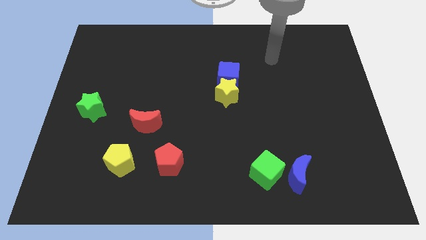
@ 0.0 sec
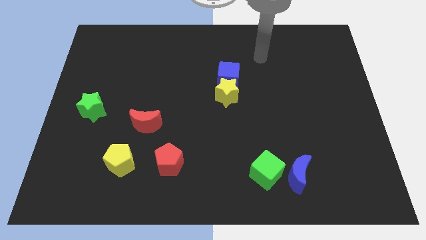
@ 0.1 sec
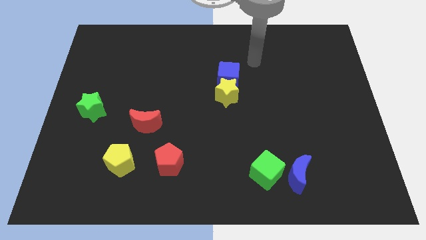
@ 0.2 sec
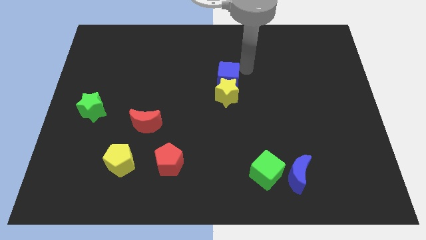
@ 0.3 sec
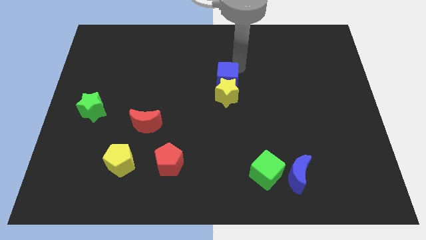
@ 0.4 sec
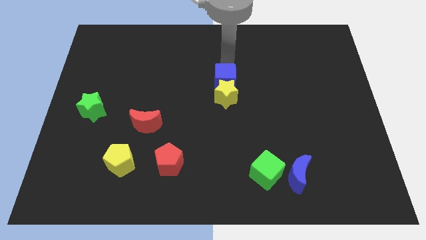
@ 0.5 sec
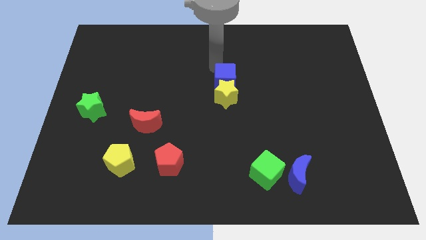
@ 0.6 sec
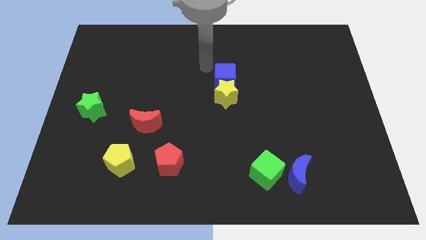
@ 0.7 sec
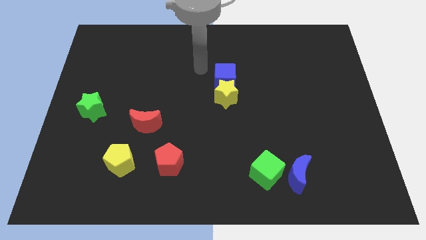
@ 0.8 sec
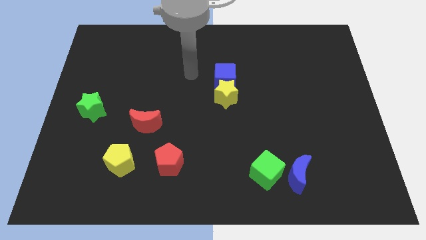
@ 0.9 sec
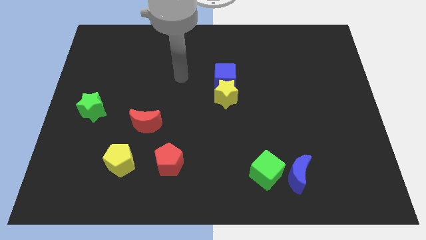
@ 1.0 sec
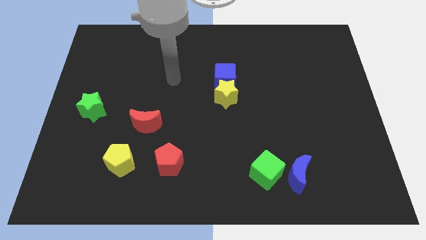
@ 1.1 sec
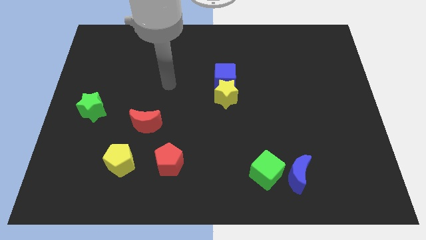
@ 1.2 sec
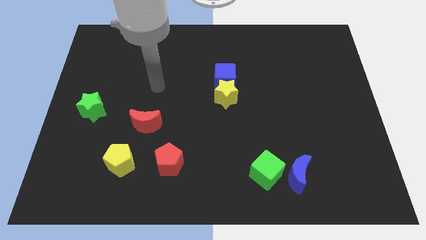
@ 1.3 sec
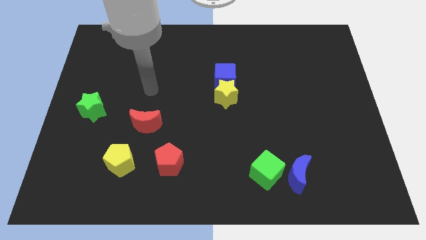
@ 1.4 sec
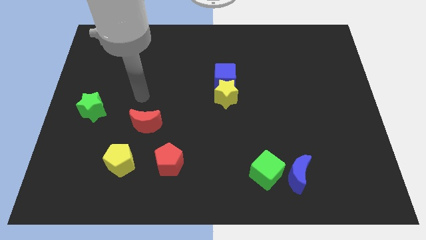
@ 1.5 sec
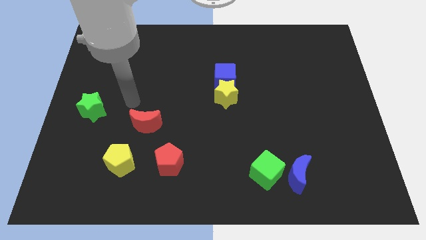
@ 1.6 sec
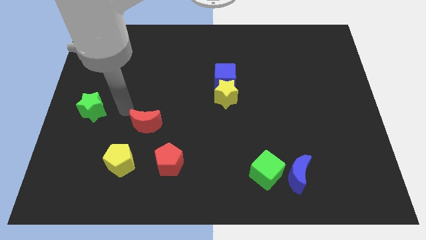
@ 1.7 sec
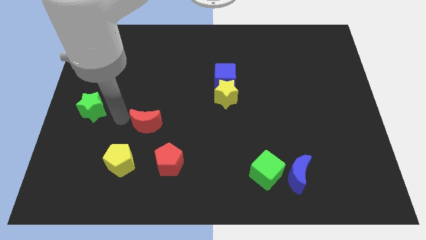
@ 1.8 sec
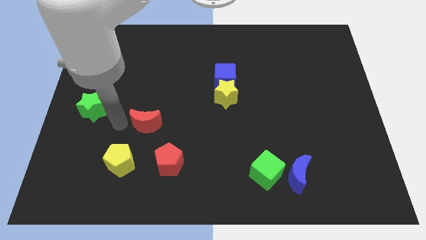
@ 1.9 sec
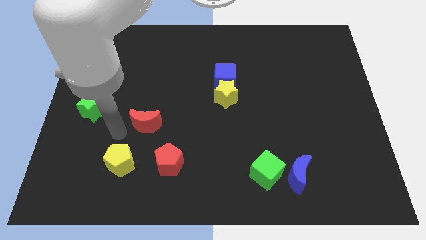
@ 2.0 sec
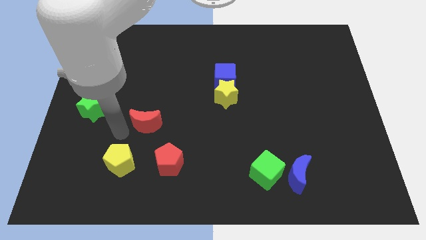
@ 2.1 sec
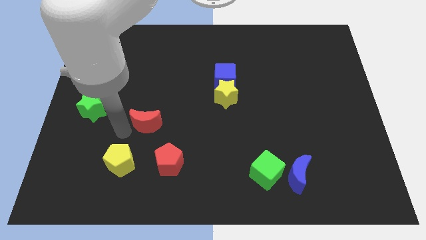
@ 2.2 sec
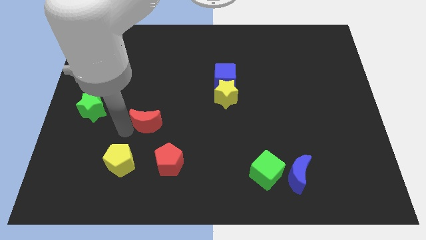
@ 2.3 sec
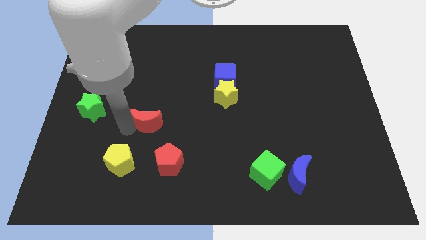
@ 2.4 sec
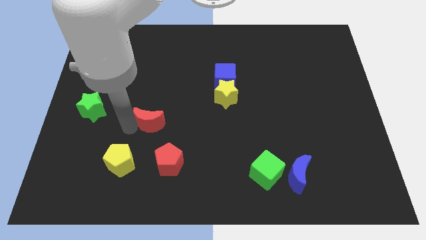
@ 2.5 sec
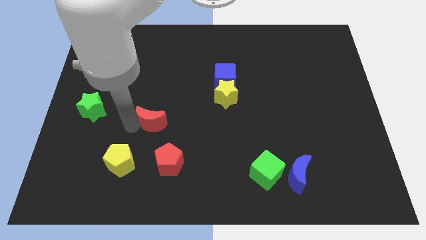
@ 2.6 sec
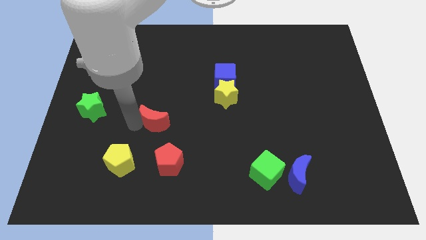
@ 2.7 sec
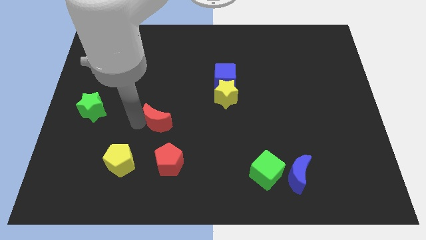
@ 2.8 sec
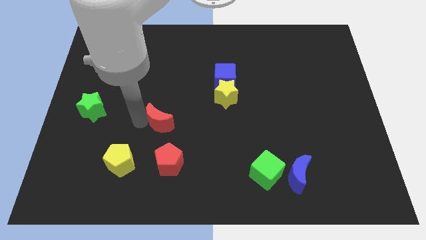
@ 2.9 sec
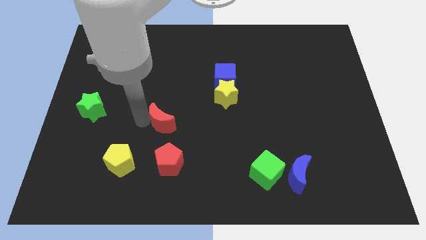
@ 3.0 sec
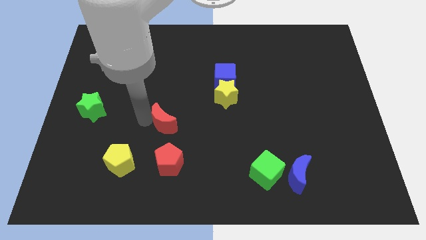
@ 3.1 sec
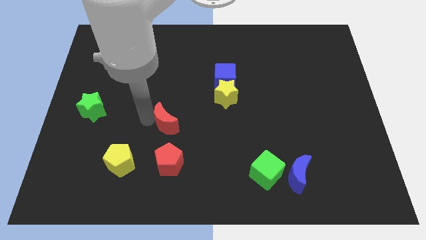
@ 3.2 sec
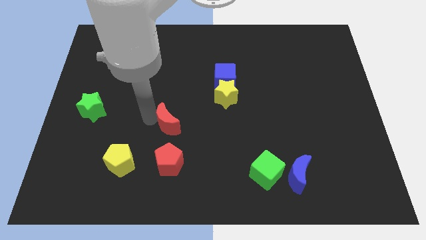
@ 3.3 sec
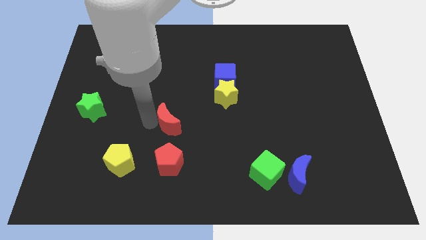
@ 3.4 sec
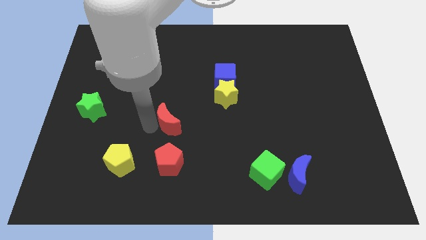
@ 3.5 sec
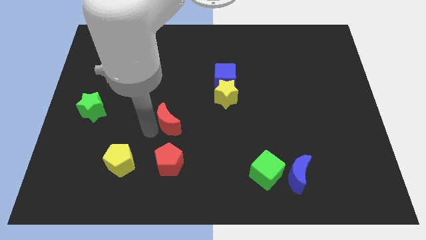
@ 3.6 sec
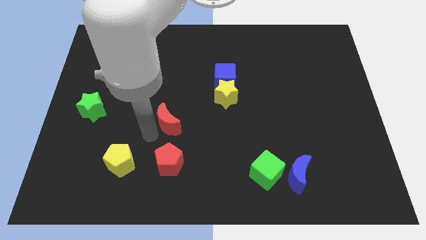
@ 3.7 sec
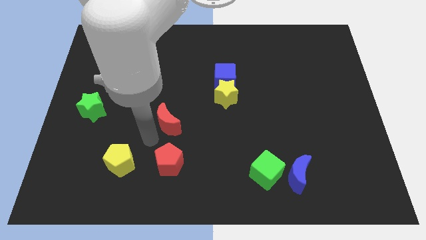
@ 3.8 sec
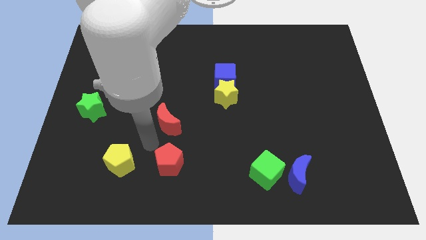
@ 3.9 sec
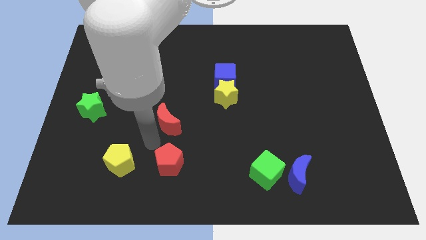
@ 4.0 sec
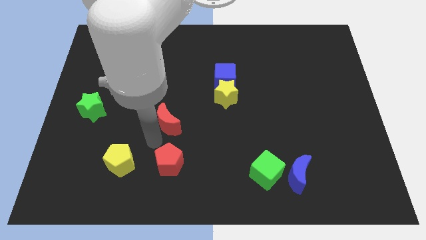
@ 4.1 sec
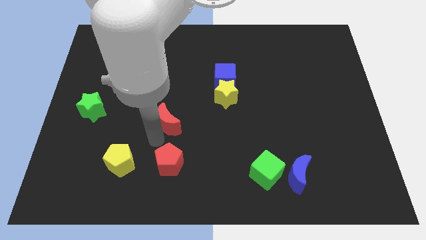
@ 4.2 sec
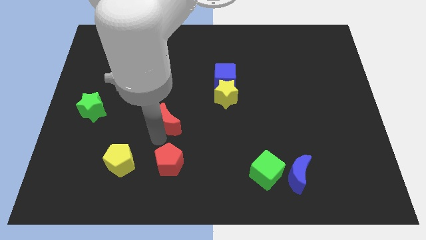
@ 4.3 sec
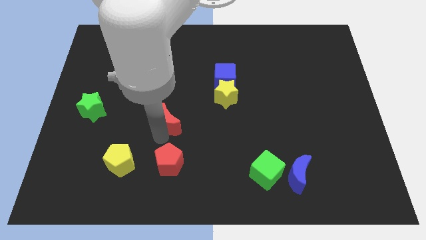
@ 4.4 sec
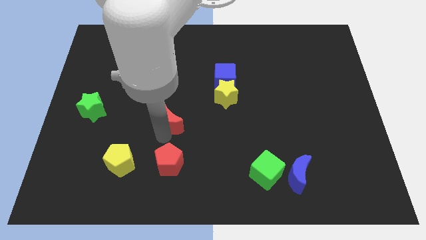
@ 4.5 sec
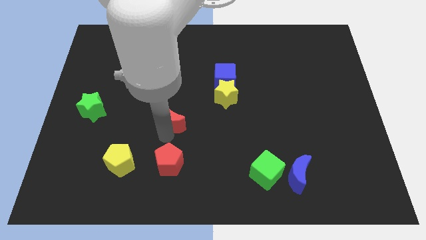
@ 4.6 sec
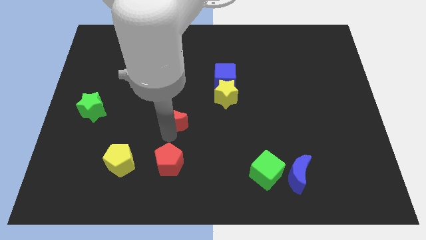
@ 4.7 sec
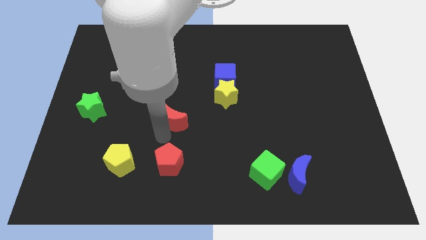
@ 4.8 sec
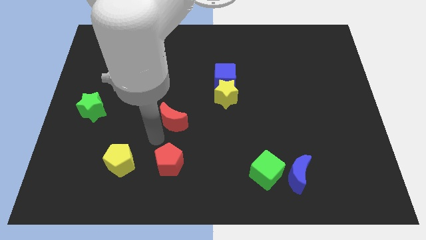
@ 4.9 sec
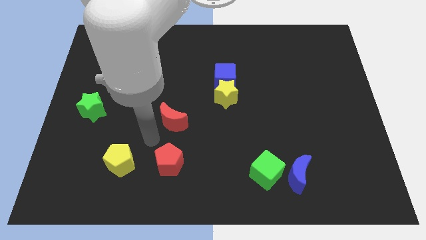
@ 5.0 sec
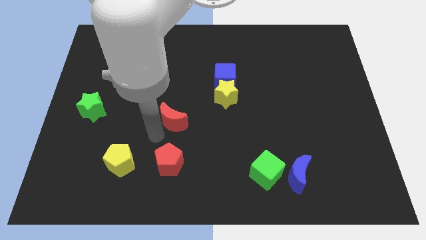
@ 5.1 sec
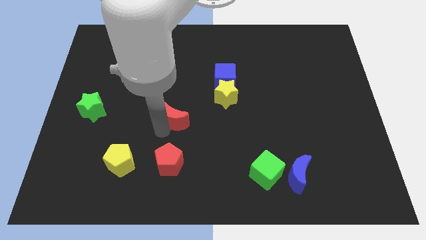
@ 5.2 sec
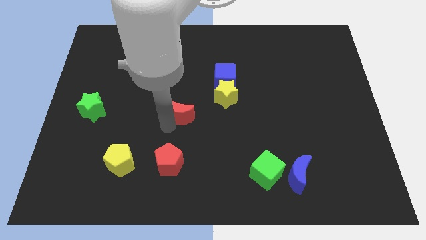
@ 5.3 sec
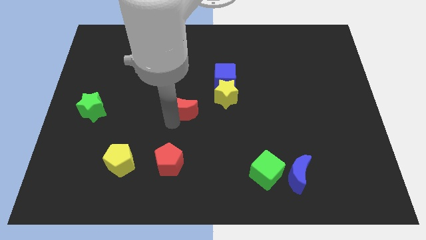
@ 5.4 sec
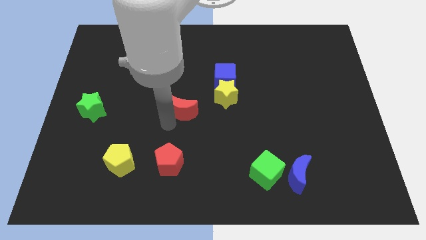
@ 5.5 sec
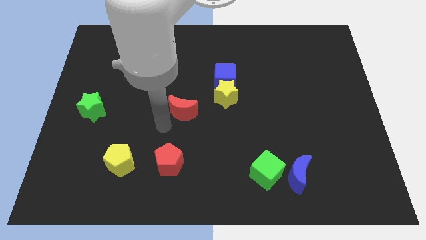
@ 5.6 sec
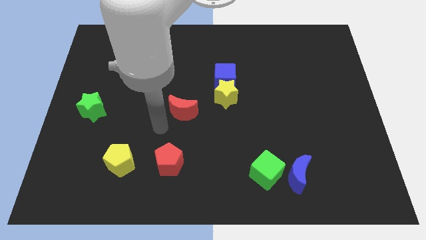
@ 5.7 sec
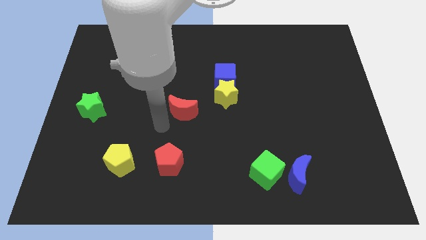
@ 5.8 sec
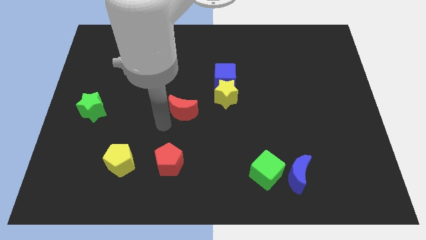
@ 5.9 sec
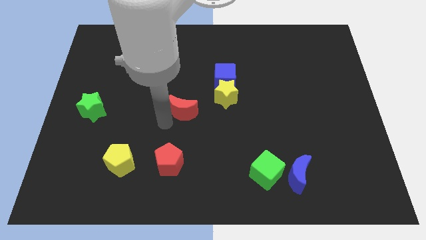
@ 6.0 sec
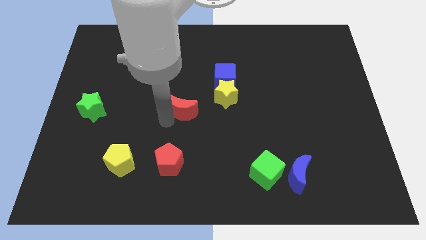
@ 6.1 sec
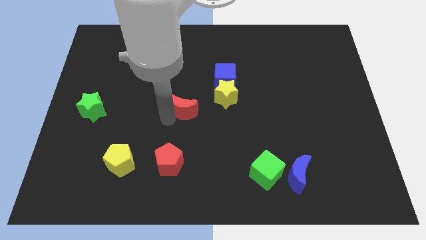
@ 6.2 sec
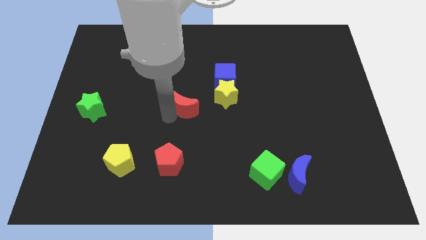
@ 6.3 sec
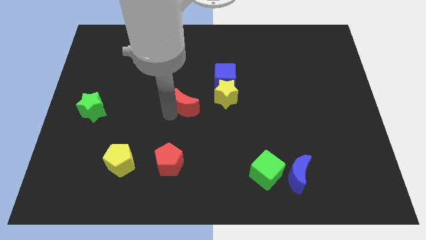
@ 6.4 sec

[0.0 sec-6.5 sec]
put the red moon to the bottom left of the blue cube

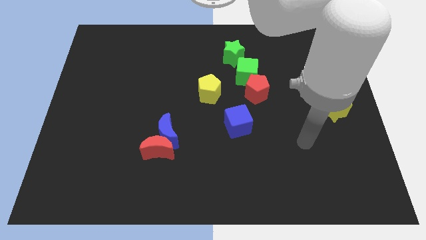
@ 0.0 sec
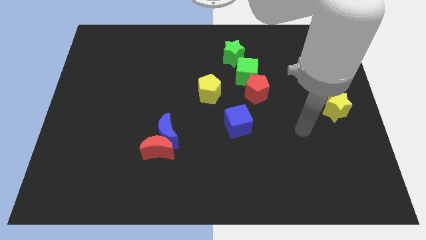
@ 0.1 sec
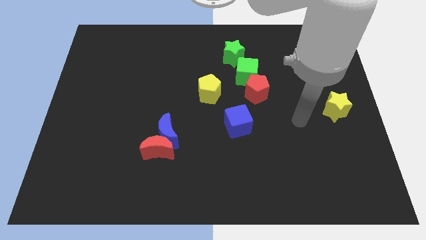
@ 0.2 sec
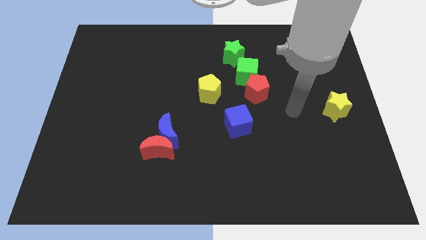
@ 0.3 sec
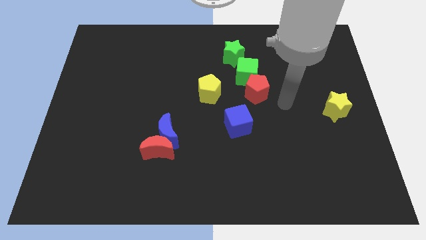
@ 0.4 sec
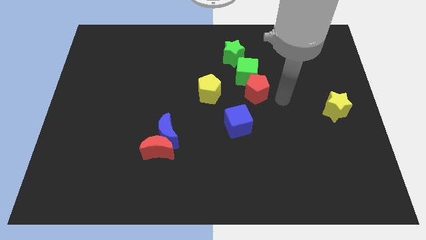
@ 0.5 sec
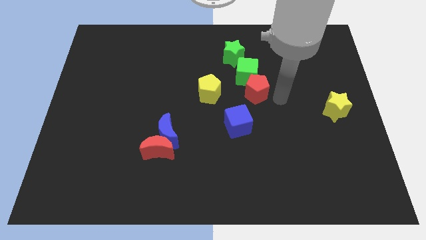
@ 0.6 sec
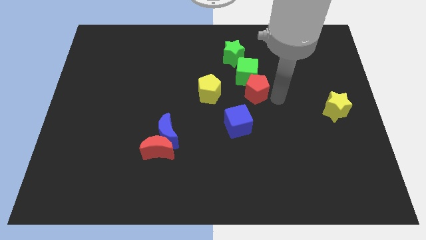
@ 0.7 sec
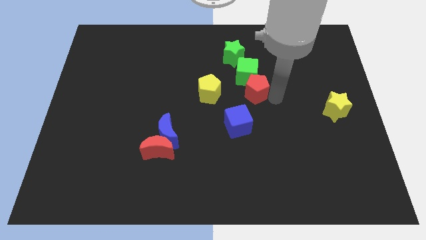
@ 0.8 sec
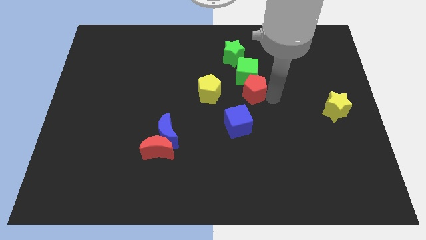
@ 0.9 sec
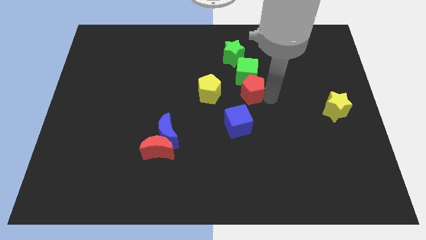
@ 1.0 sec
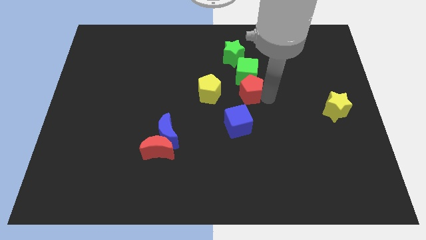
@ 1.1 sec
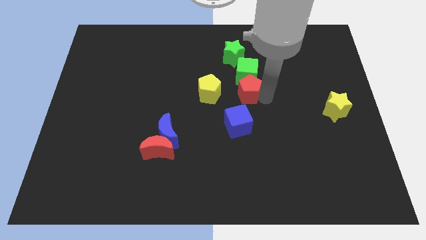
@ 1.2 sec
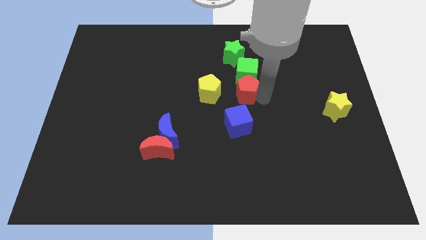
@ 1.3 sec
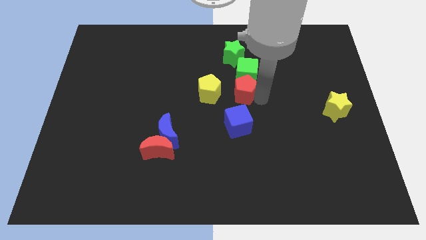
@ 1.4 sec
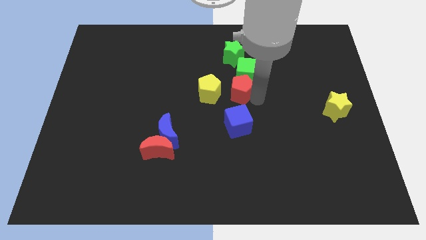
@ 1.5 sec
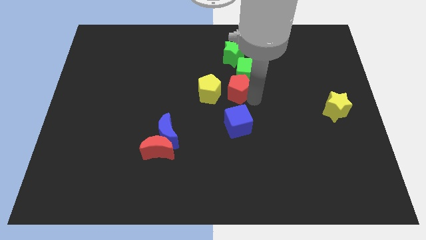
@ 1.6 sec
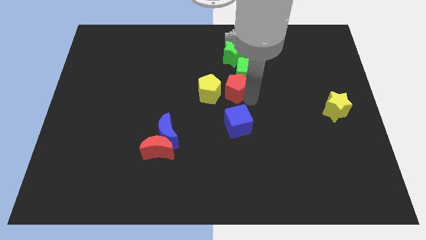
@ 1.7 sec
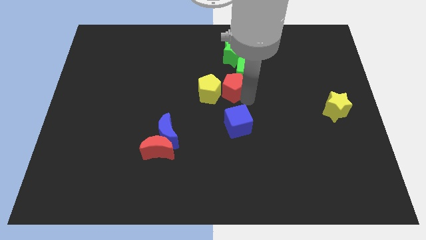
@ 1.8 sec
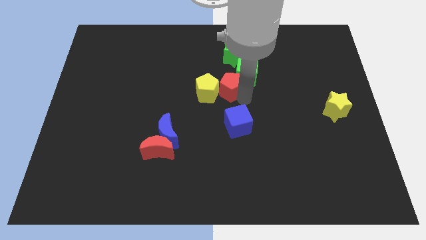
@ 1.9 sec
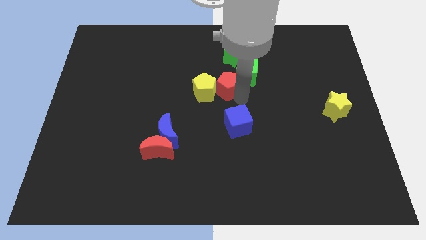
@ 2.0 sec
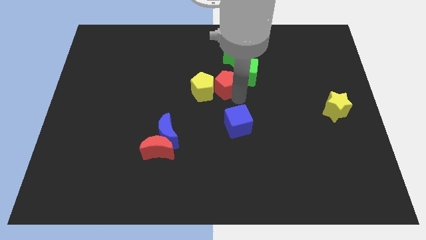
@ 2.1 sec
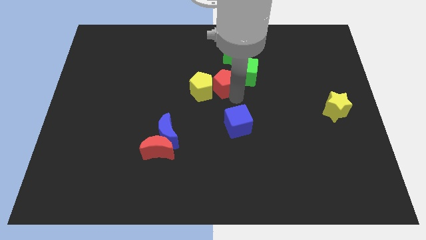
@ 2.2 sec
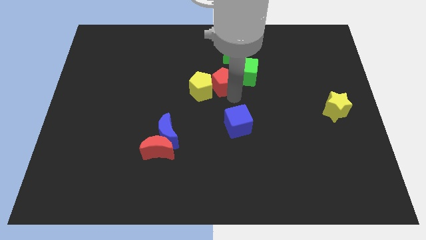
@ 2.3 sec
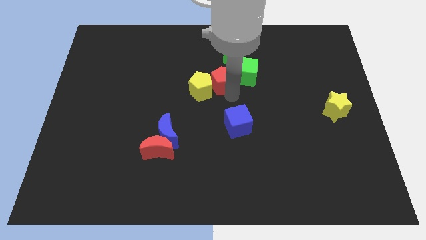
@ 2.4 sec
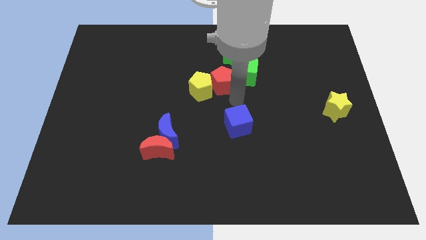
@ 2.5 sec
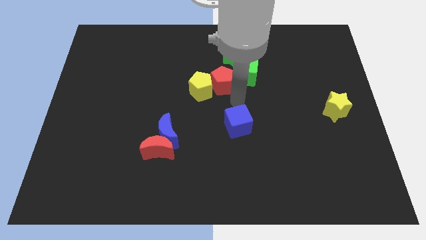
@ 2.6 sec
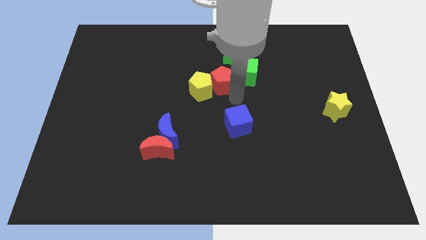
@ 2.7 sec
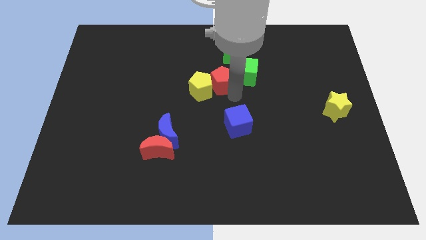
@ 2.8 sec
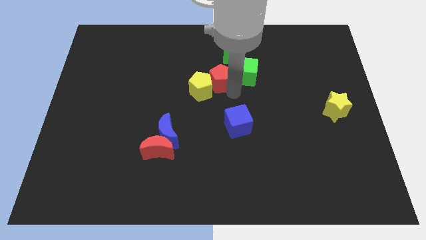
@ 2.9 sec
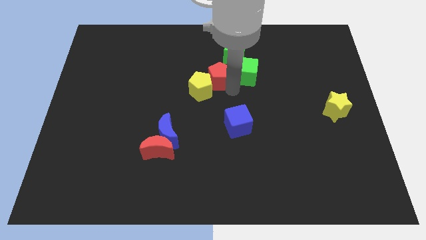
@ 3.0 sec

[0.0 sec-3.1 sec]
move the red pentagon above the yellow pentagon
